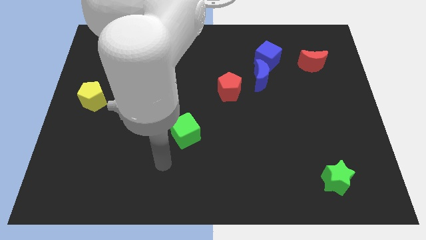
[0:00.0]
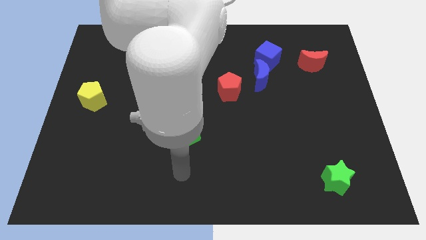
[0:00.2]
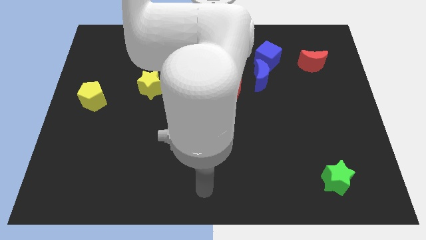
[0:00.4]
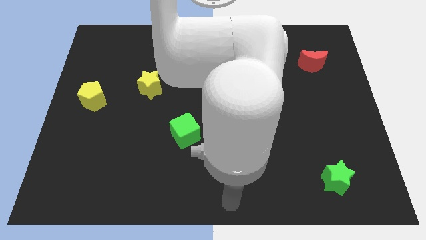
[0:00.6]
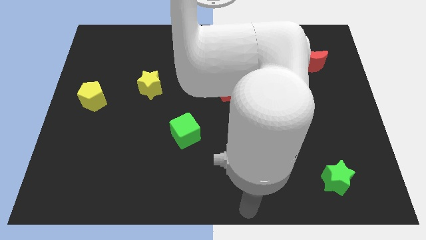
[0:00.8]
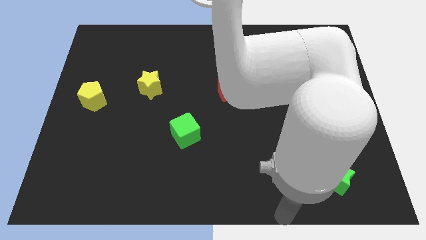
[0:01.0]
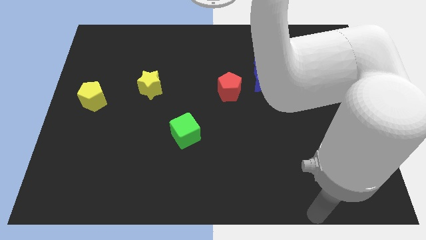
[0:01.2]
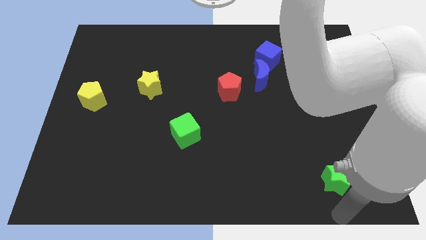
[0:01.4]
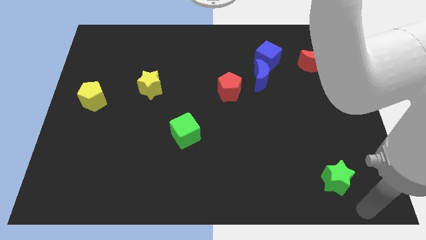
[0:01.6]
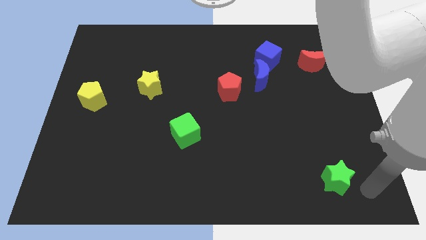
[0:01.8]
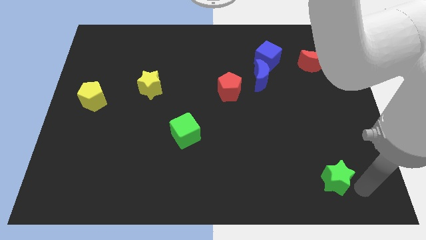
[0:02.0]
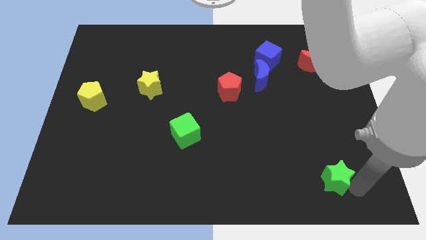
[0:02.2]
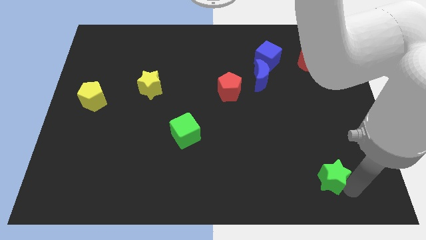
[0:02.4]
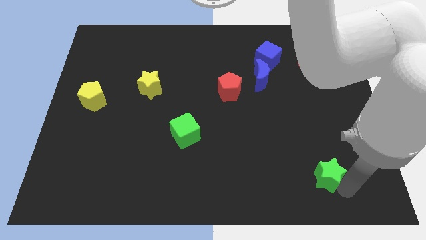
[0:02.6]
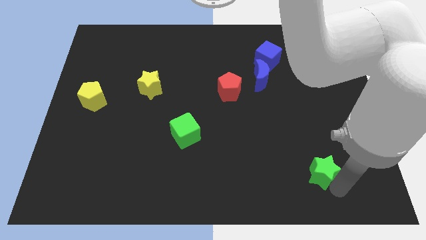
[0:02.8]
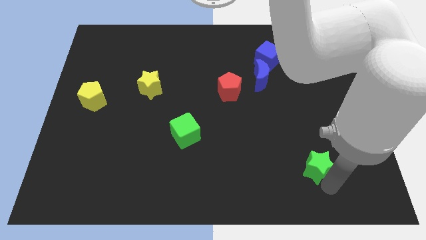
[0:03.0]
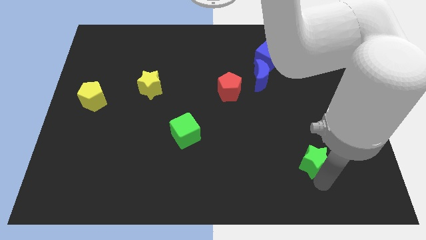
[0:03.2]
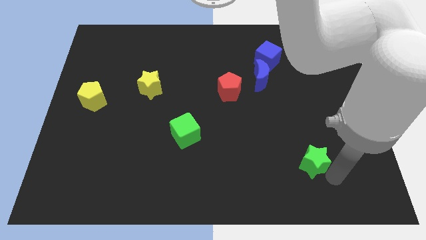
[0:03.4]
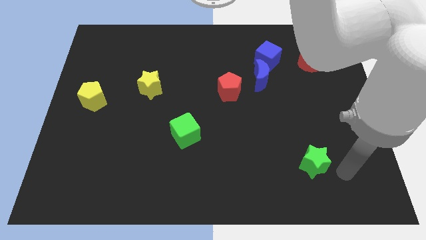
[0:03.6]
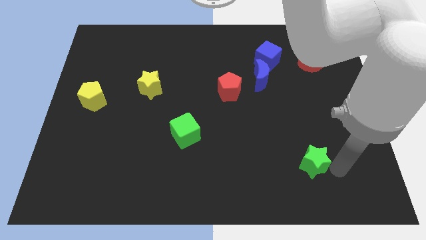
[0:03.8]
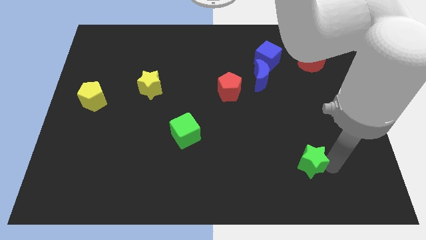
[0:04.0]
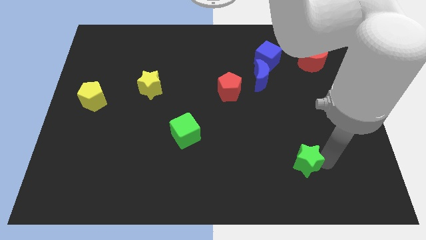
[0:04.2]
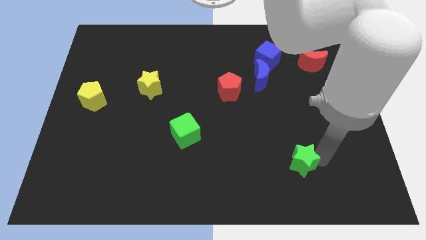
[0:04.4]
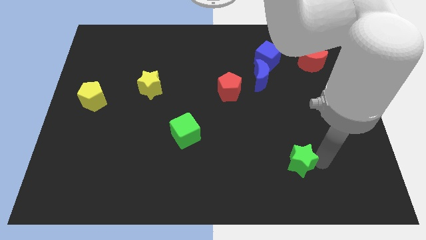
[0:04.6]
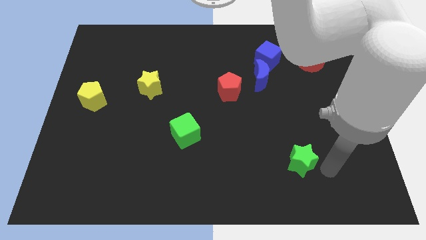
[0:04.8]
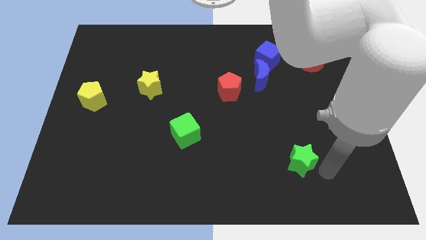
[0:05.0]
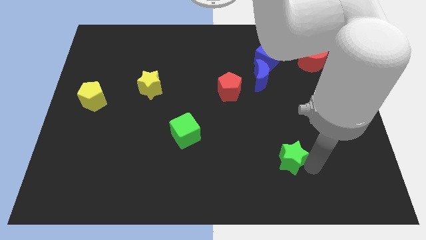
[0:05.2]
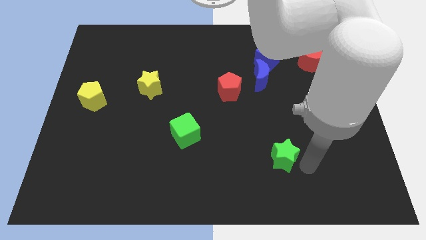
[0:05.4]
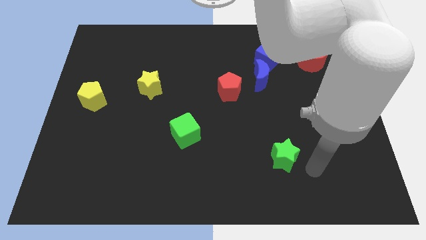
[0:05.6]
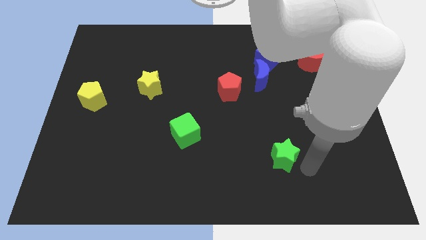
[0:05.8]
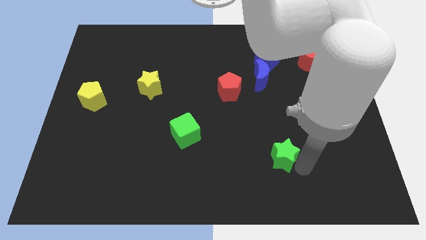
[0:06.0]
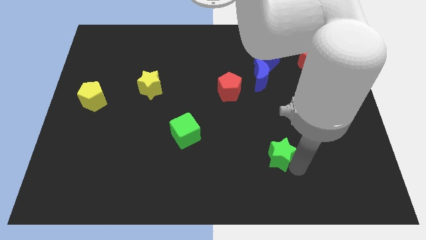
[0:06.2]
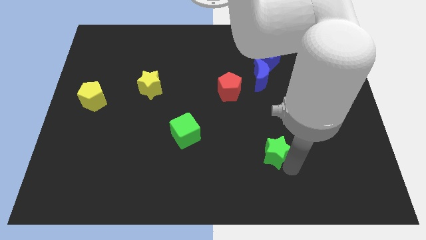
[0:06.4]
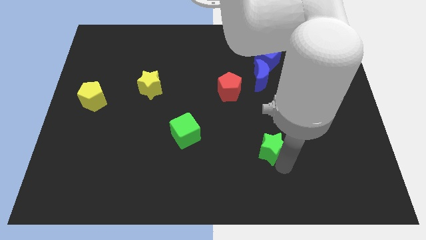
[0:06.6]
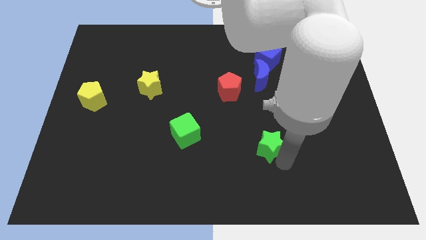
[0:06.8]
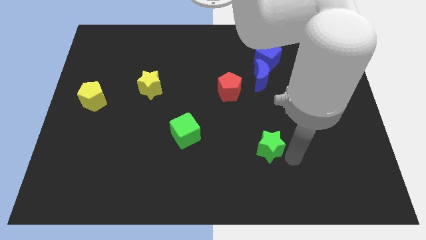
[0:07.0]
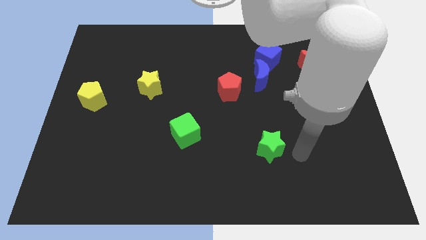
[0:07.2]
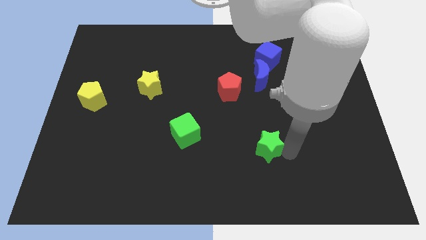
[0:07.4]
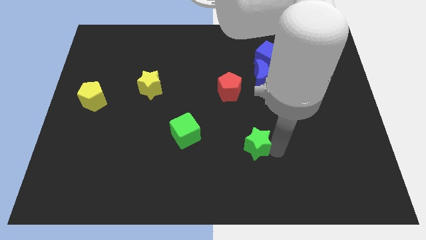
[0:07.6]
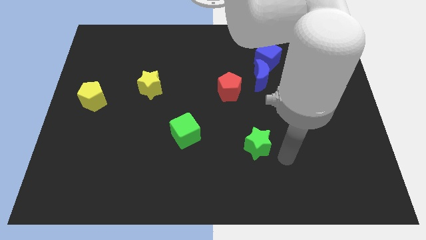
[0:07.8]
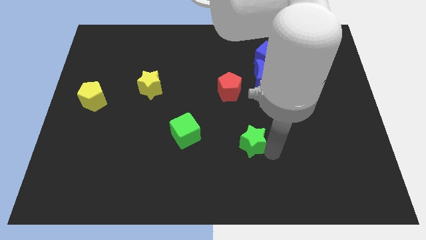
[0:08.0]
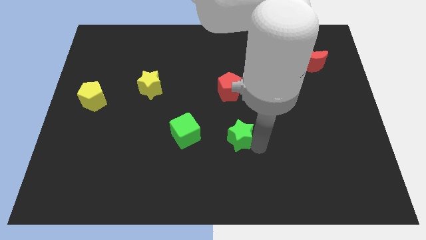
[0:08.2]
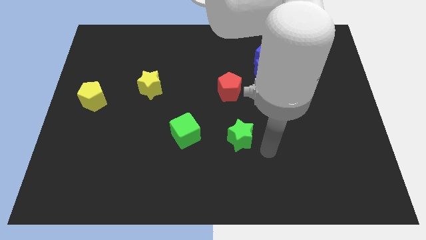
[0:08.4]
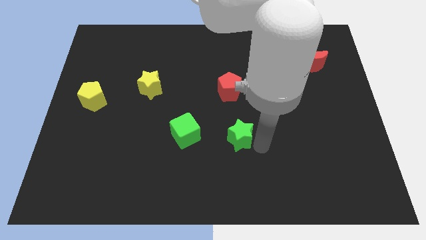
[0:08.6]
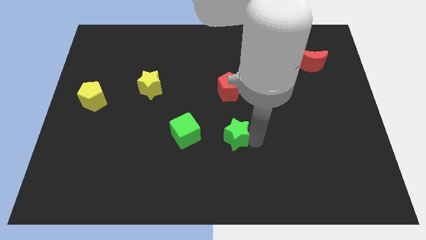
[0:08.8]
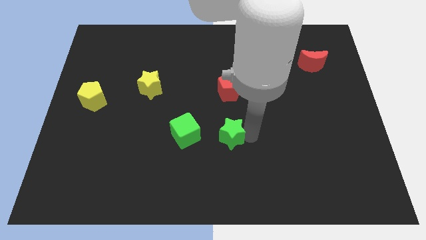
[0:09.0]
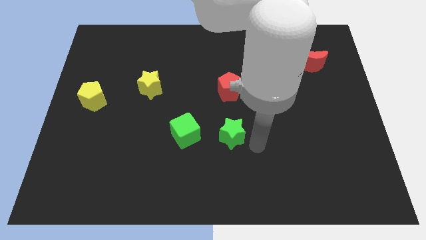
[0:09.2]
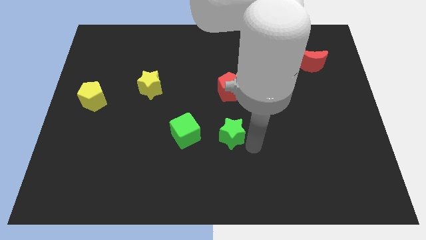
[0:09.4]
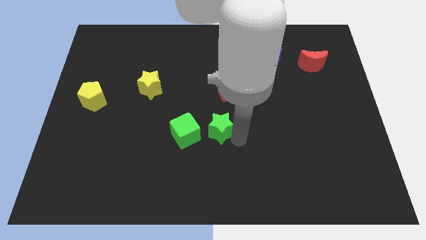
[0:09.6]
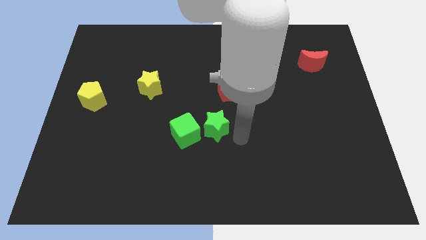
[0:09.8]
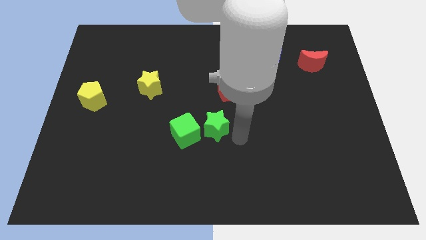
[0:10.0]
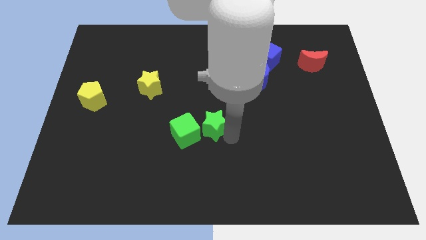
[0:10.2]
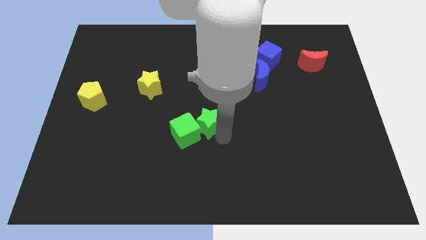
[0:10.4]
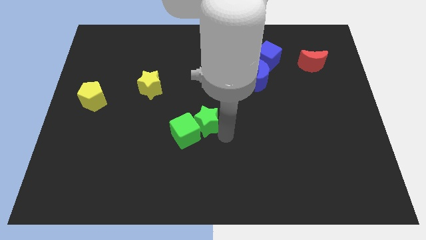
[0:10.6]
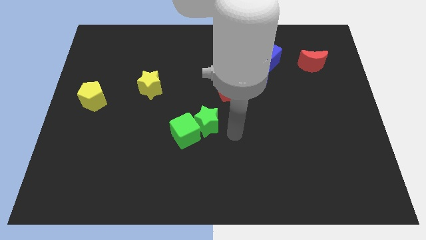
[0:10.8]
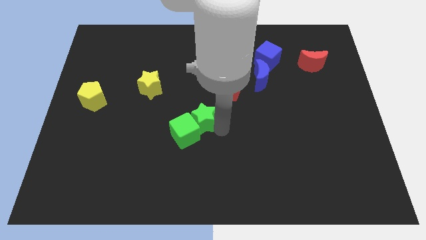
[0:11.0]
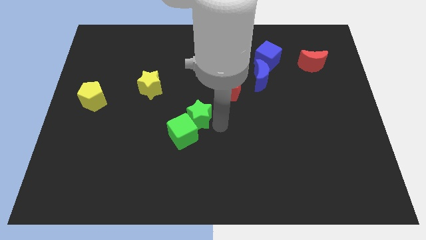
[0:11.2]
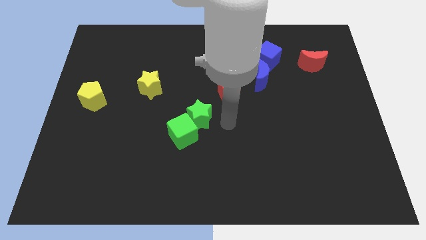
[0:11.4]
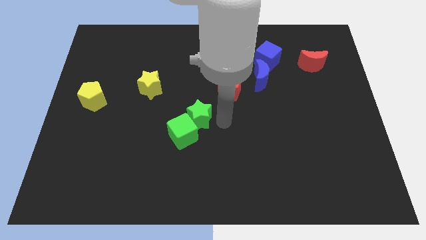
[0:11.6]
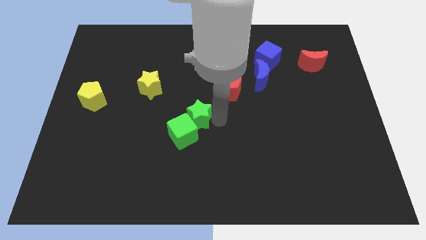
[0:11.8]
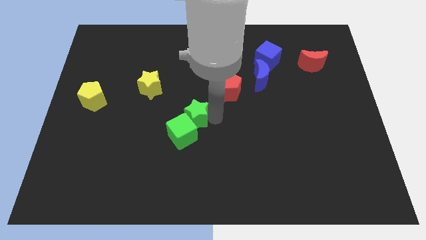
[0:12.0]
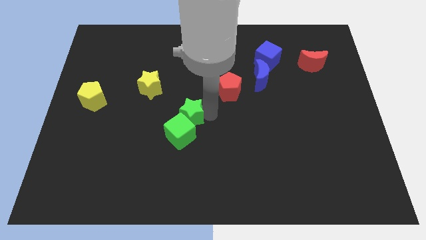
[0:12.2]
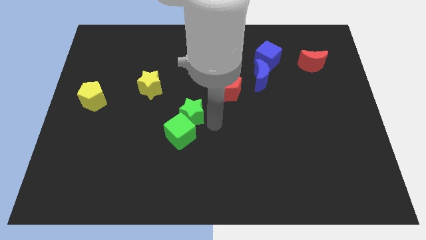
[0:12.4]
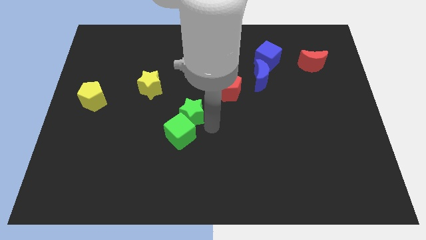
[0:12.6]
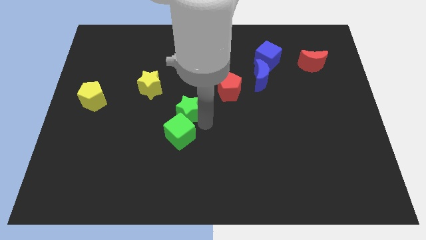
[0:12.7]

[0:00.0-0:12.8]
slide the green star to the bottom right of the yellow star

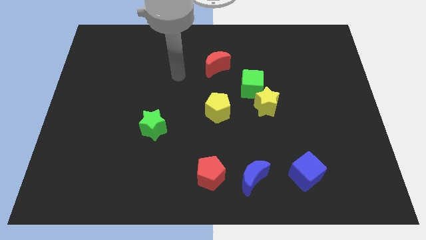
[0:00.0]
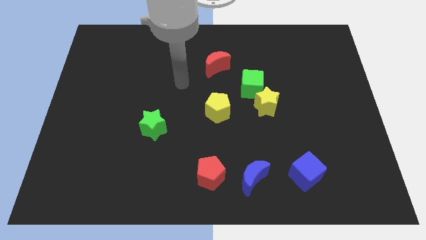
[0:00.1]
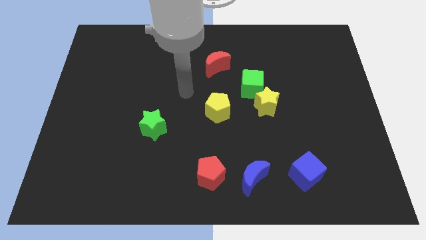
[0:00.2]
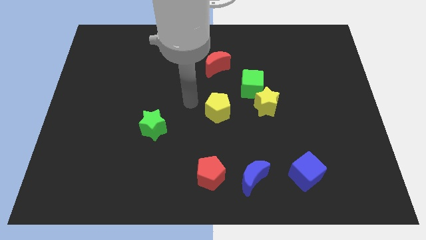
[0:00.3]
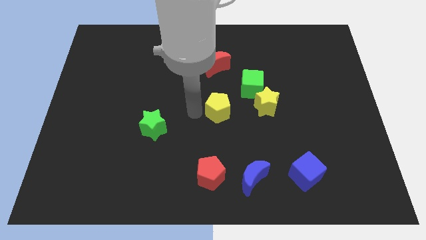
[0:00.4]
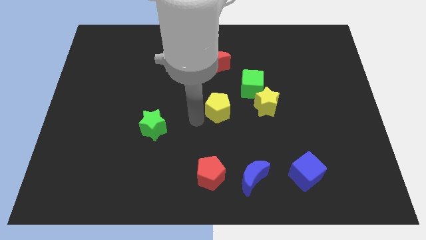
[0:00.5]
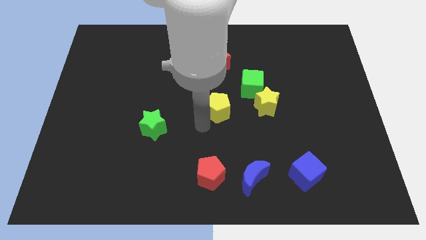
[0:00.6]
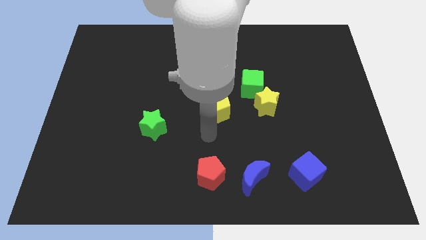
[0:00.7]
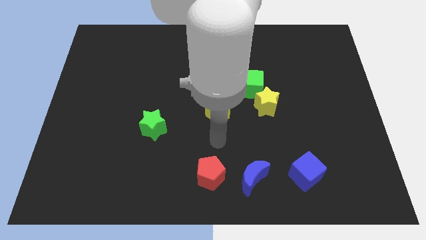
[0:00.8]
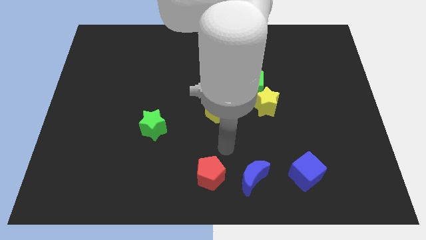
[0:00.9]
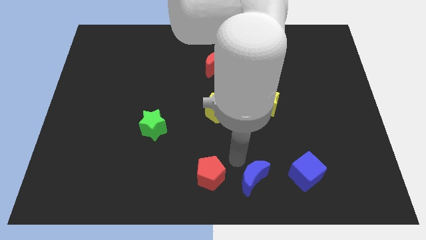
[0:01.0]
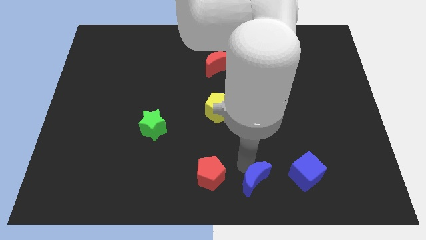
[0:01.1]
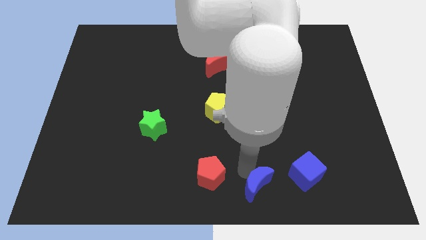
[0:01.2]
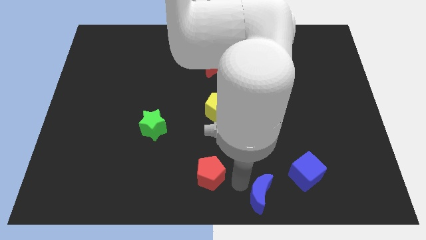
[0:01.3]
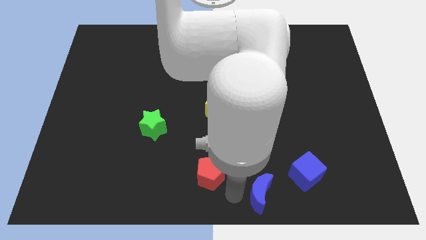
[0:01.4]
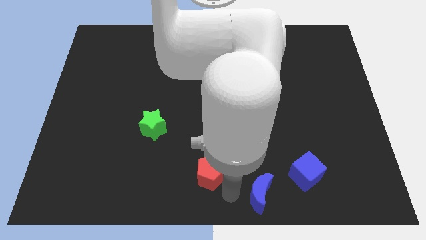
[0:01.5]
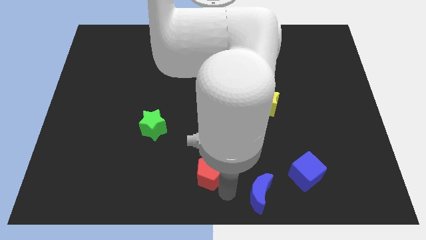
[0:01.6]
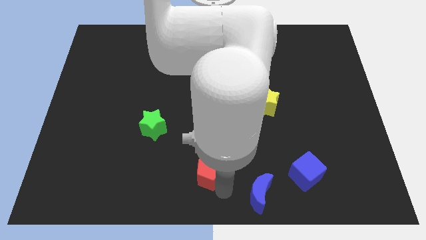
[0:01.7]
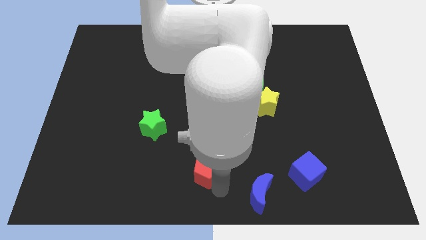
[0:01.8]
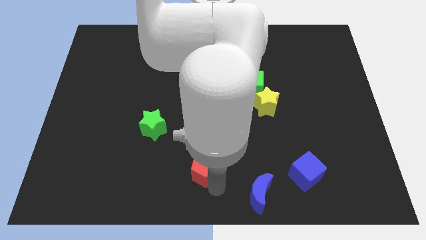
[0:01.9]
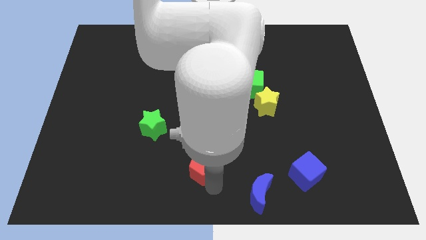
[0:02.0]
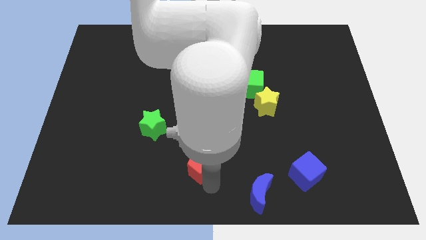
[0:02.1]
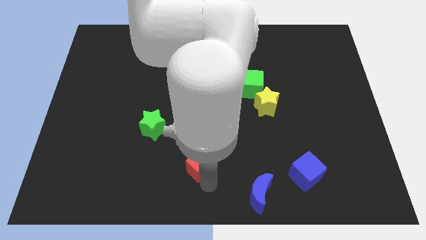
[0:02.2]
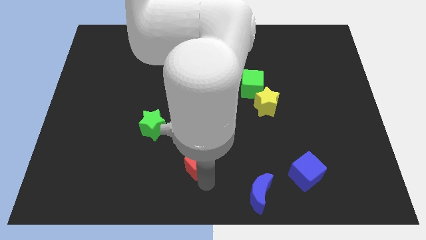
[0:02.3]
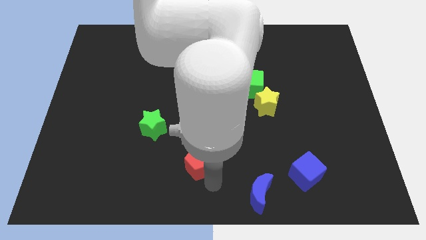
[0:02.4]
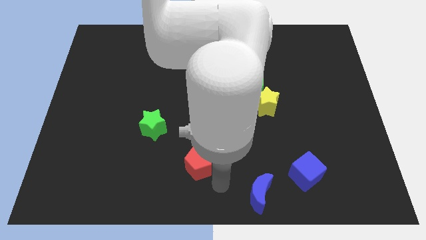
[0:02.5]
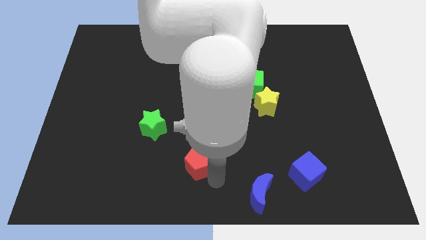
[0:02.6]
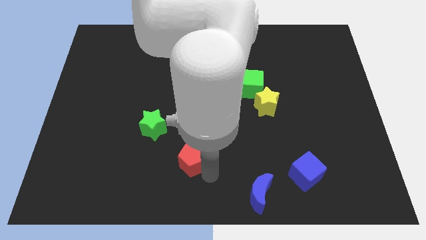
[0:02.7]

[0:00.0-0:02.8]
put the red pentagon diagonally down and to the right of the green star
